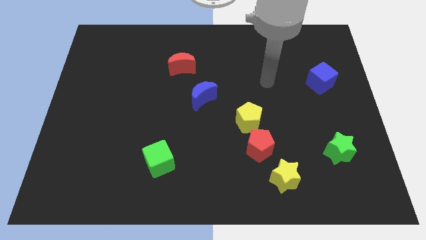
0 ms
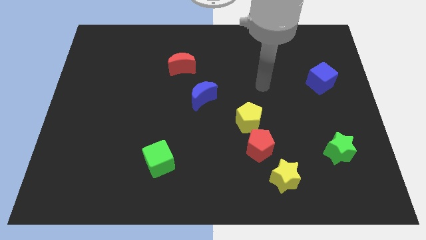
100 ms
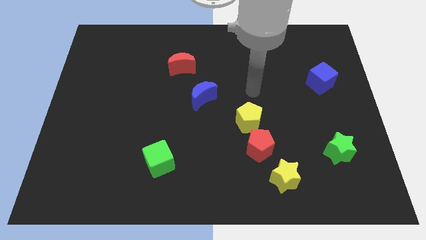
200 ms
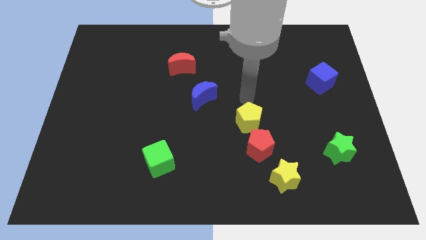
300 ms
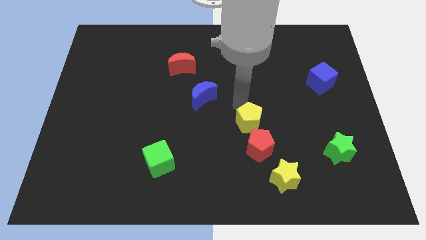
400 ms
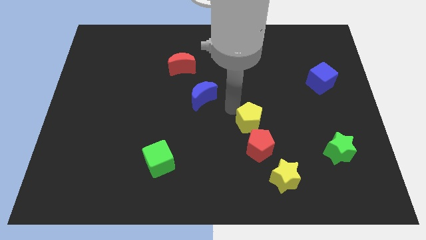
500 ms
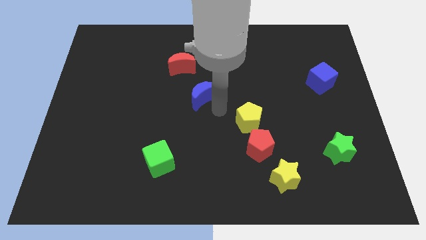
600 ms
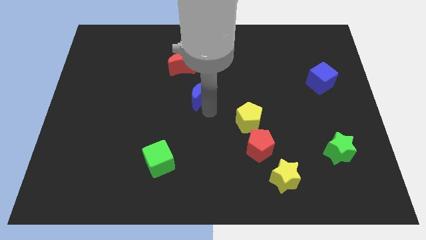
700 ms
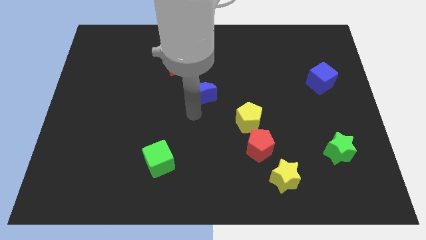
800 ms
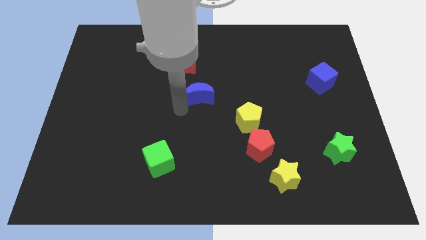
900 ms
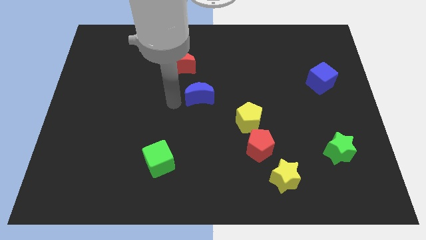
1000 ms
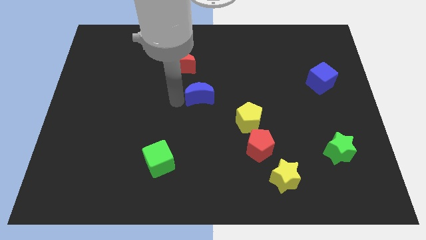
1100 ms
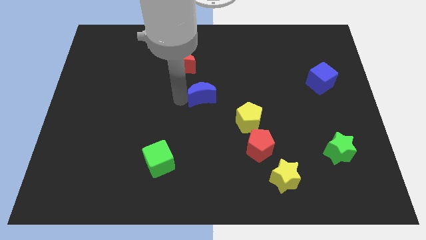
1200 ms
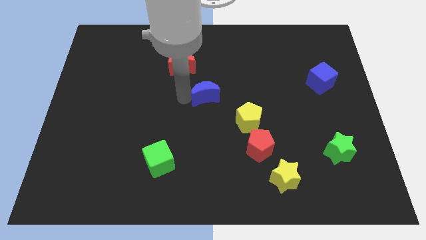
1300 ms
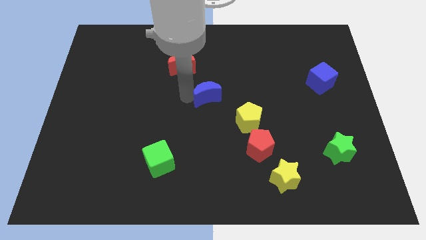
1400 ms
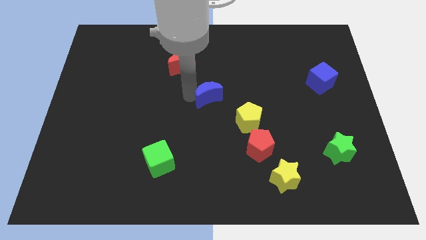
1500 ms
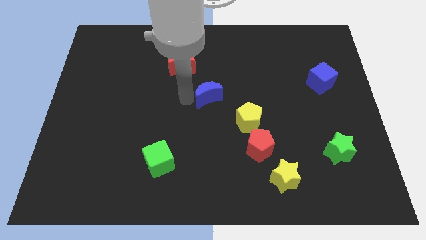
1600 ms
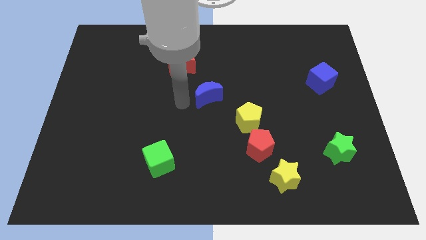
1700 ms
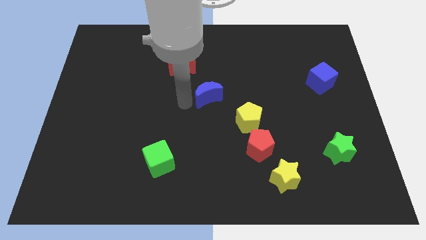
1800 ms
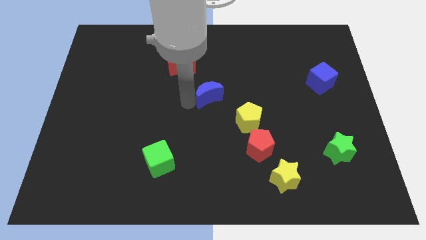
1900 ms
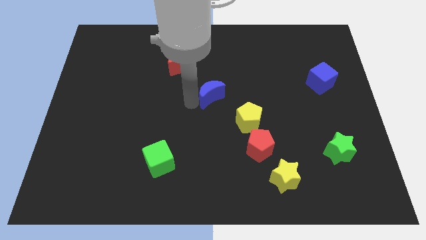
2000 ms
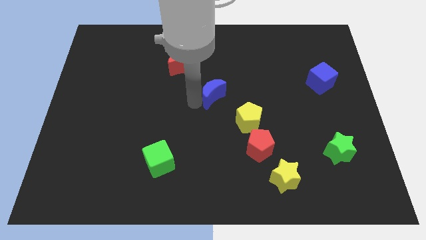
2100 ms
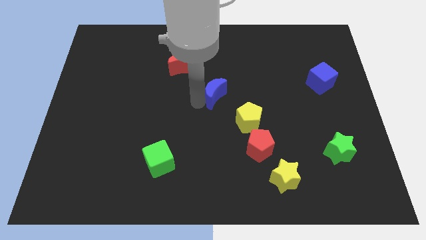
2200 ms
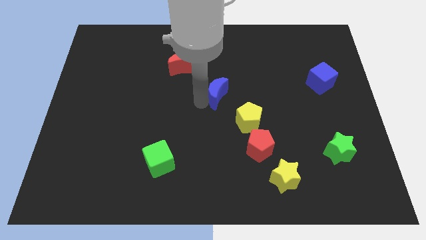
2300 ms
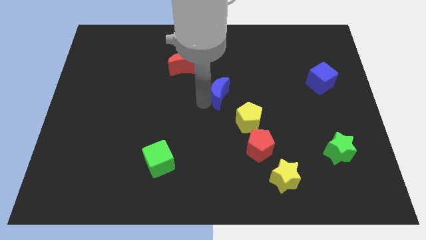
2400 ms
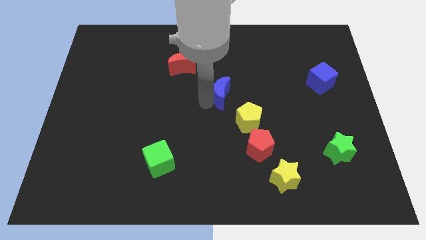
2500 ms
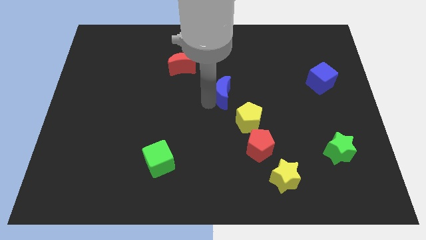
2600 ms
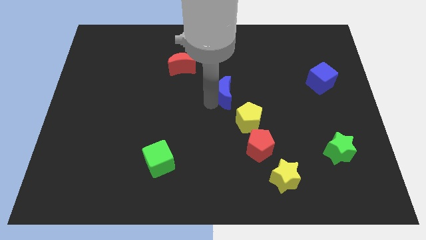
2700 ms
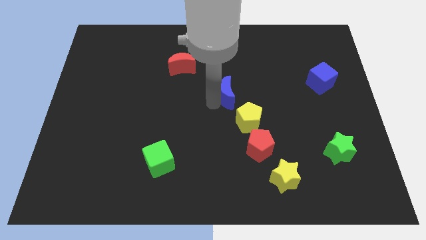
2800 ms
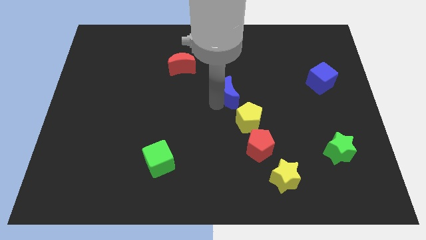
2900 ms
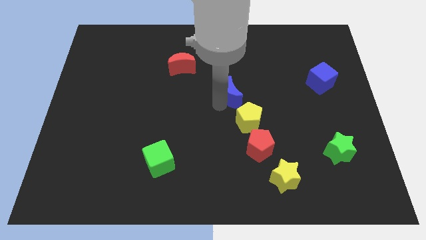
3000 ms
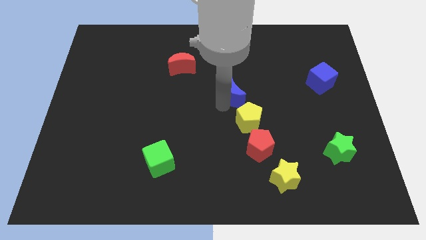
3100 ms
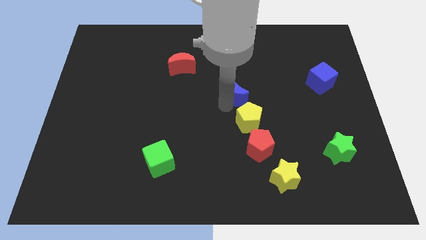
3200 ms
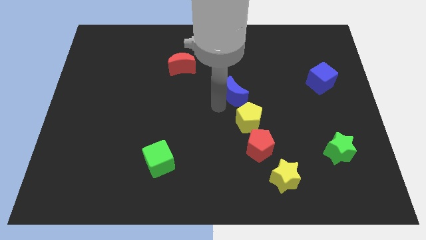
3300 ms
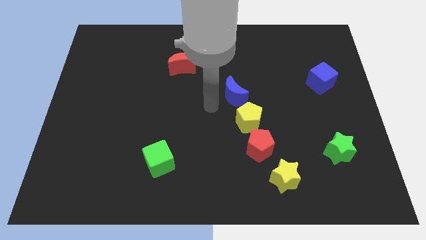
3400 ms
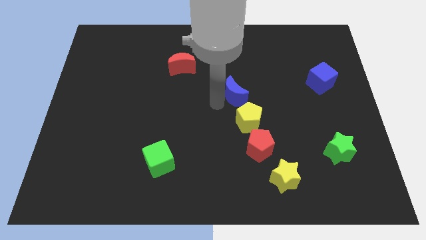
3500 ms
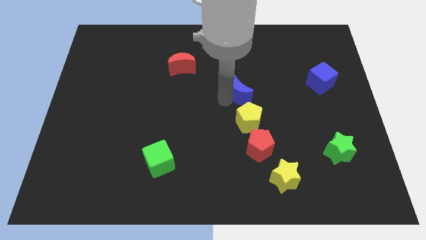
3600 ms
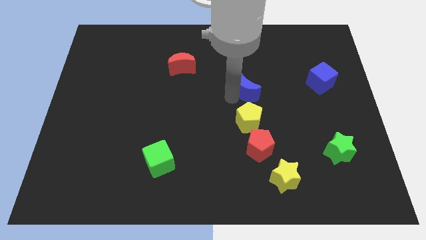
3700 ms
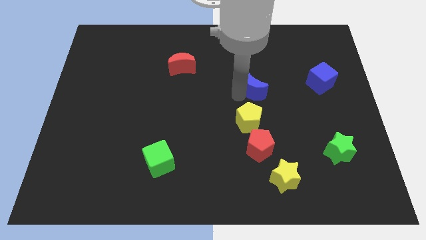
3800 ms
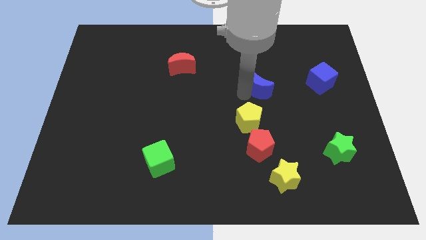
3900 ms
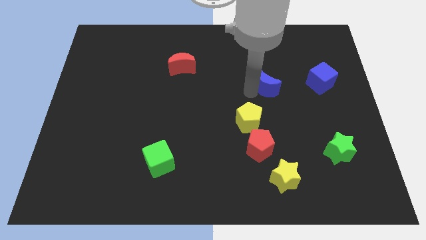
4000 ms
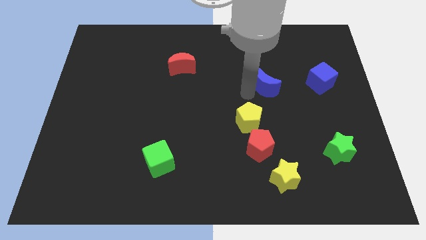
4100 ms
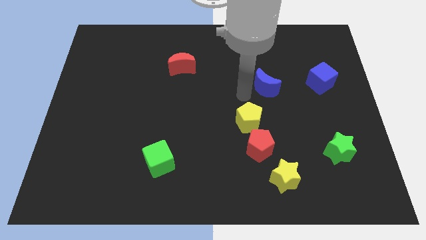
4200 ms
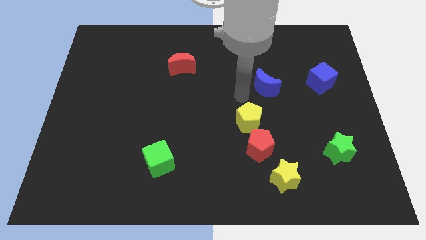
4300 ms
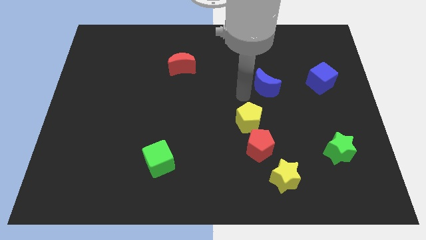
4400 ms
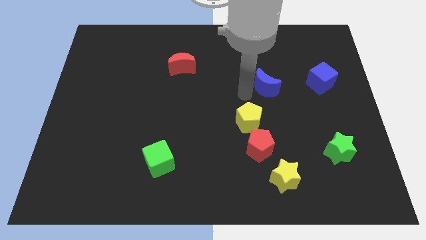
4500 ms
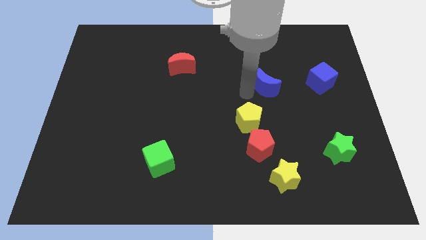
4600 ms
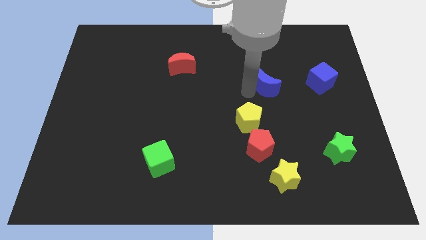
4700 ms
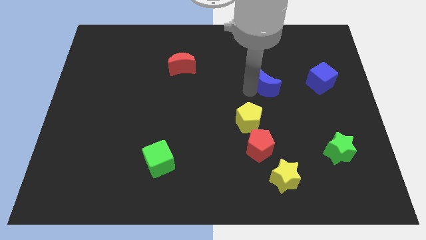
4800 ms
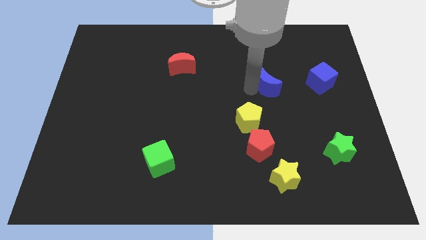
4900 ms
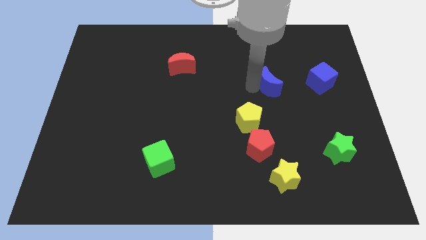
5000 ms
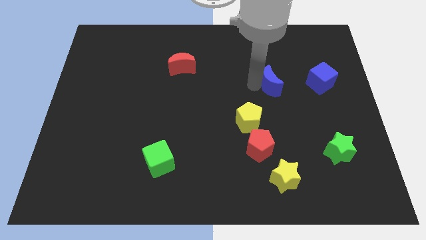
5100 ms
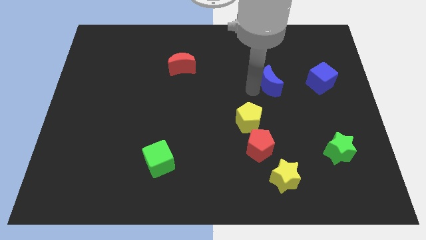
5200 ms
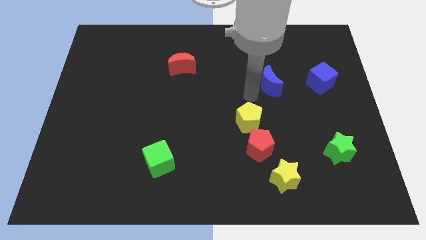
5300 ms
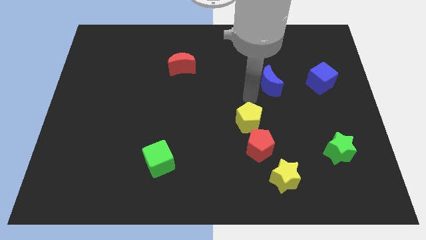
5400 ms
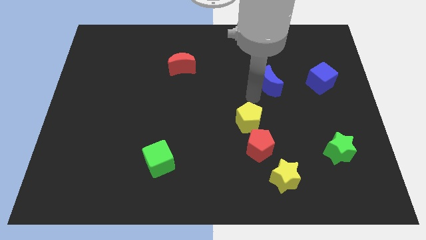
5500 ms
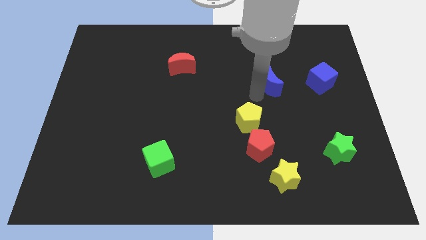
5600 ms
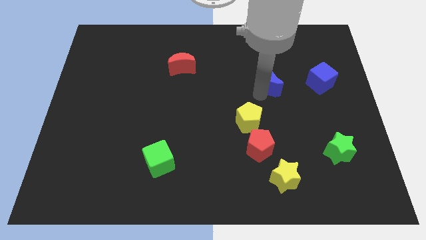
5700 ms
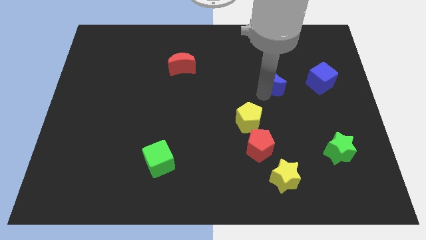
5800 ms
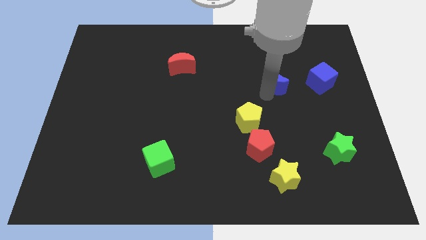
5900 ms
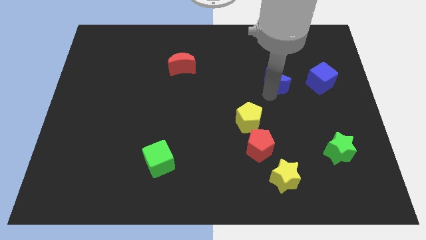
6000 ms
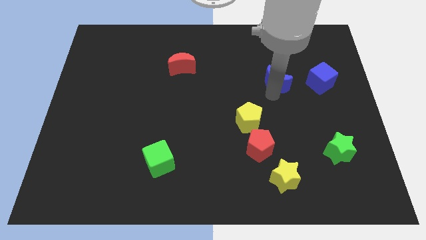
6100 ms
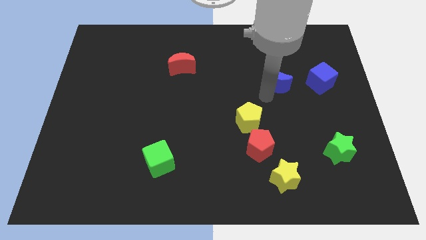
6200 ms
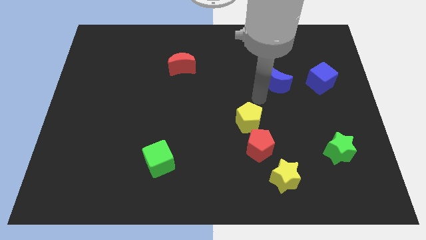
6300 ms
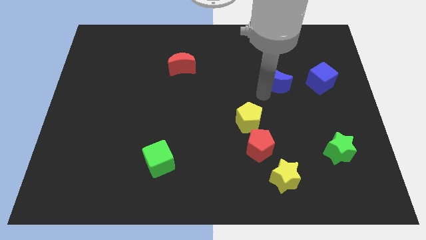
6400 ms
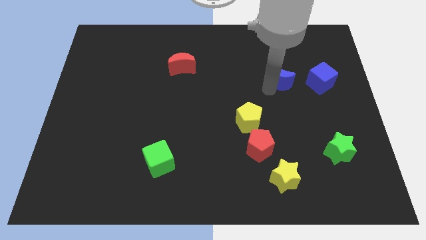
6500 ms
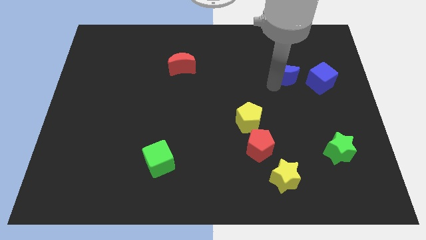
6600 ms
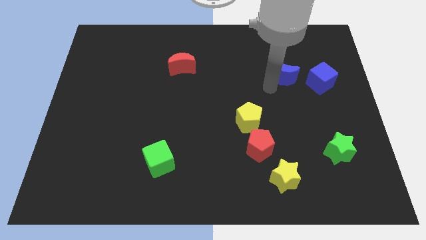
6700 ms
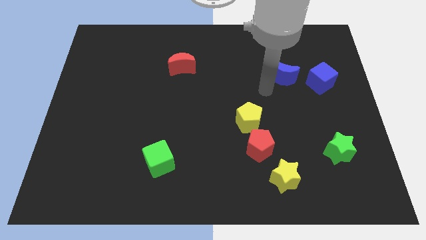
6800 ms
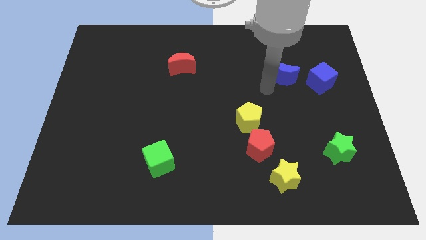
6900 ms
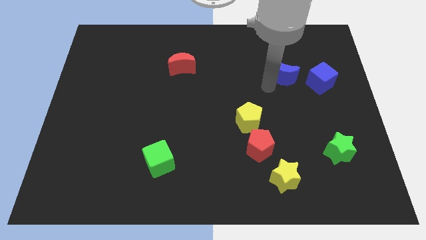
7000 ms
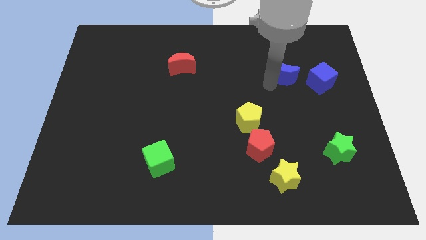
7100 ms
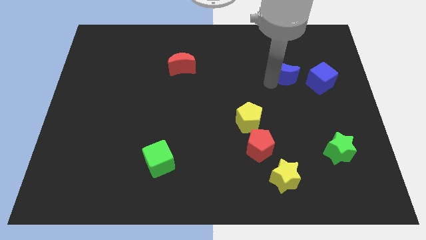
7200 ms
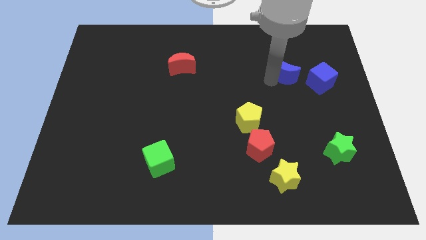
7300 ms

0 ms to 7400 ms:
put the blue moon to the top left side of the blue cube
